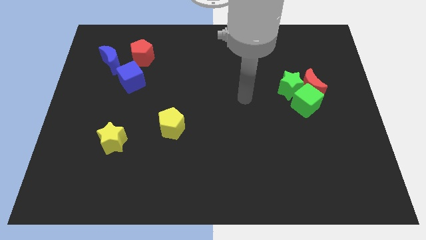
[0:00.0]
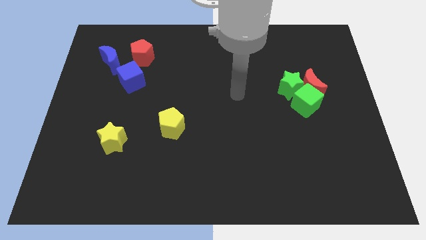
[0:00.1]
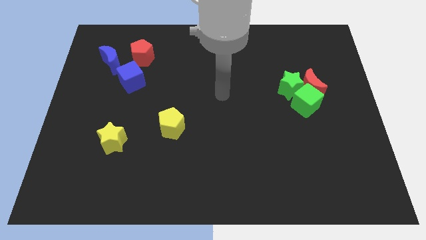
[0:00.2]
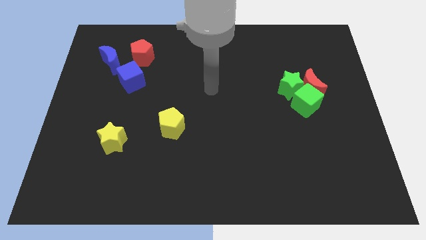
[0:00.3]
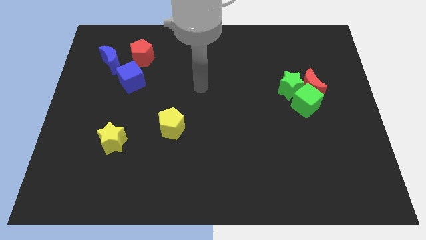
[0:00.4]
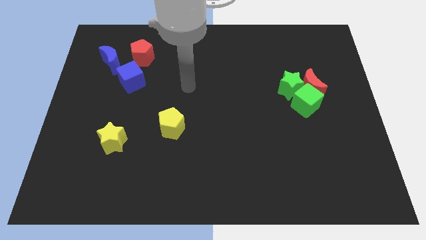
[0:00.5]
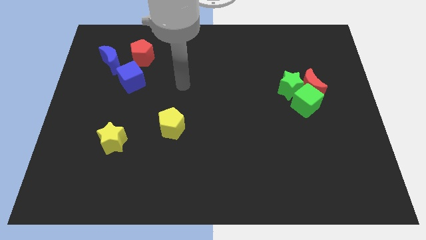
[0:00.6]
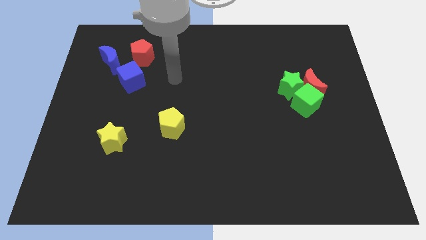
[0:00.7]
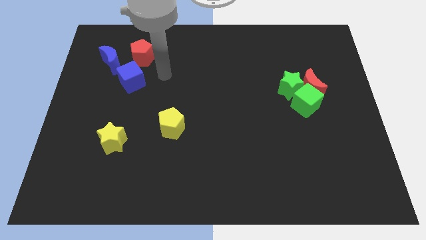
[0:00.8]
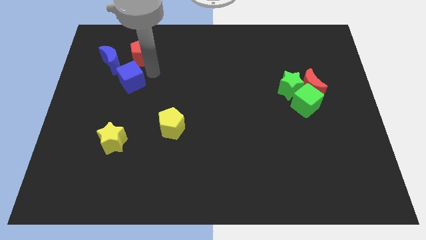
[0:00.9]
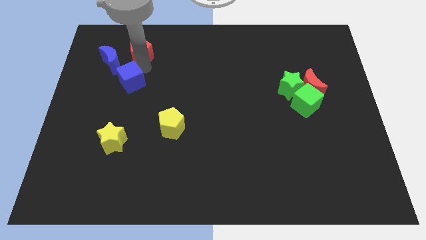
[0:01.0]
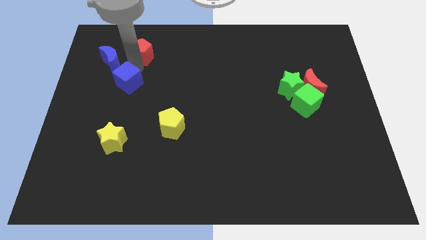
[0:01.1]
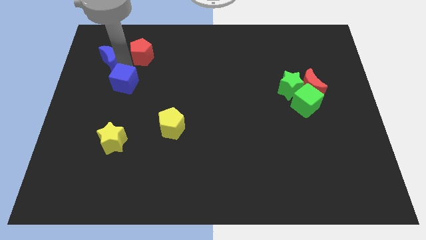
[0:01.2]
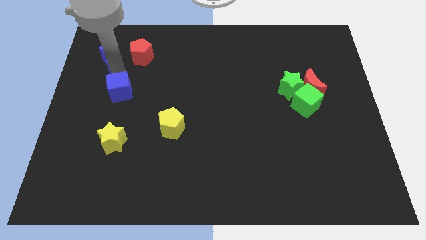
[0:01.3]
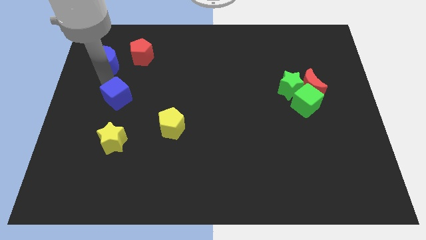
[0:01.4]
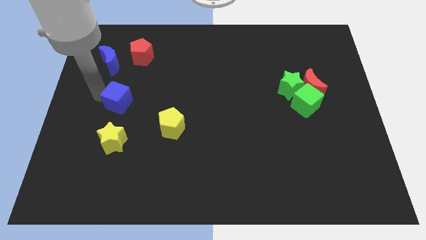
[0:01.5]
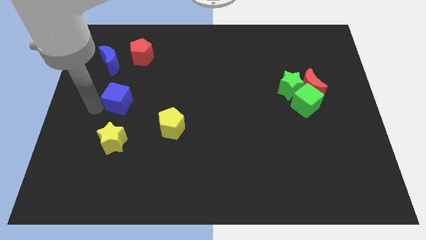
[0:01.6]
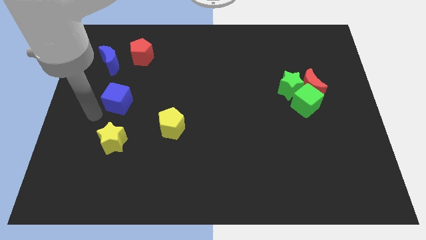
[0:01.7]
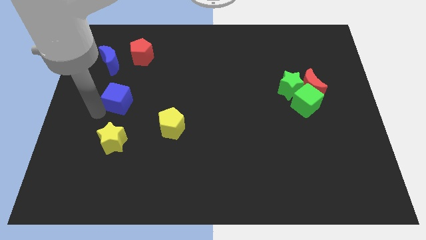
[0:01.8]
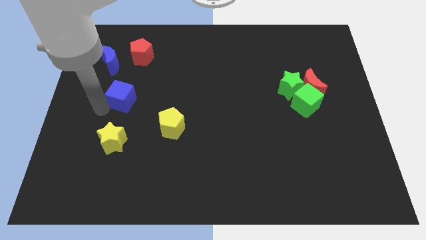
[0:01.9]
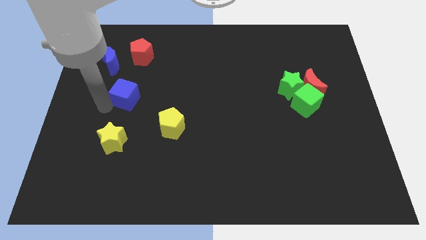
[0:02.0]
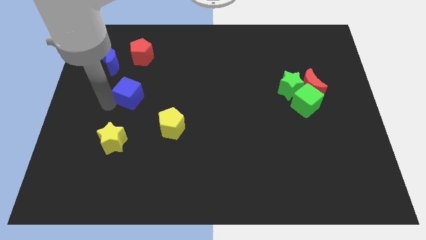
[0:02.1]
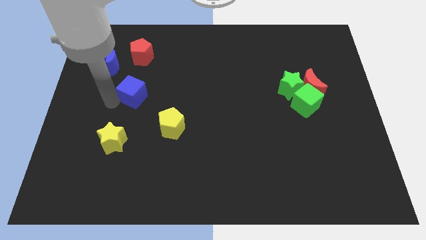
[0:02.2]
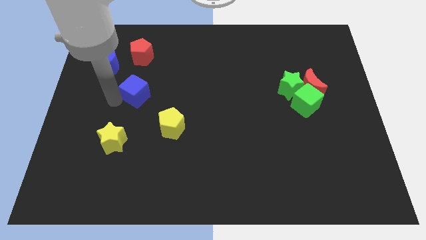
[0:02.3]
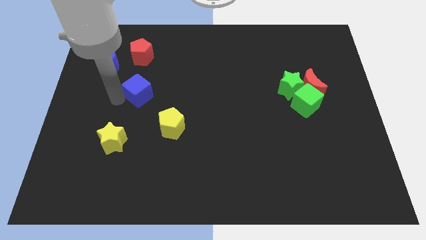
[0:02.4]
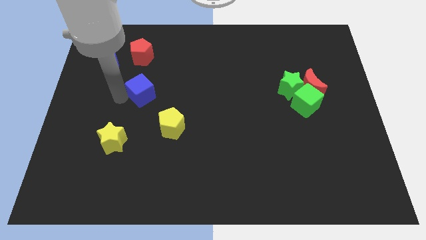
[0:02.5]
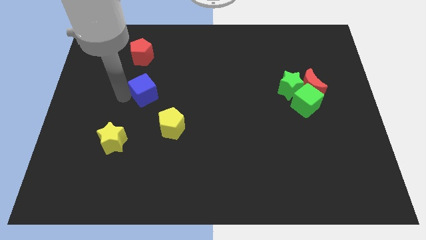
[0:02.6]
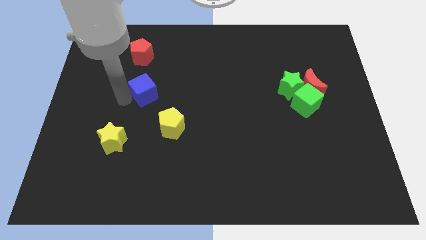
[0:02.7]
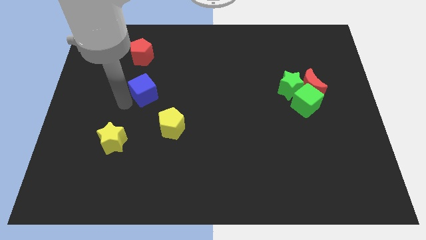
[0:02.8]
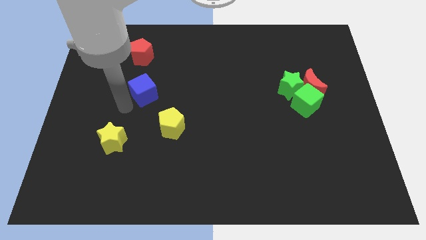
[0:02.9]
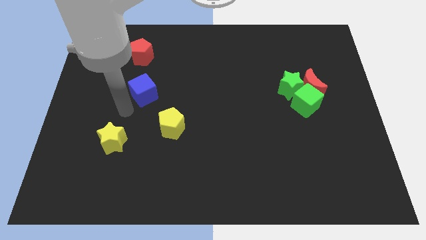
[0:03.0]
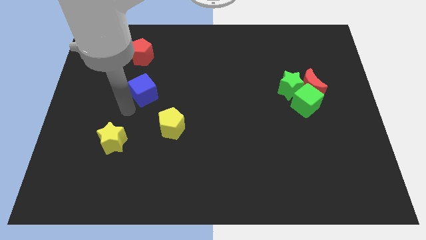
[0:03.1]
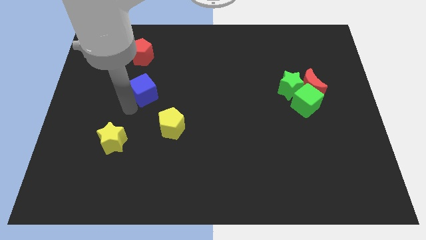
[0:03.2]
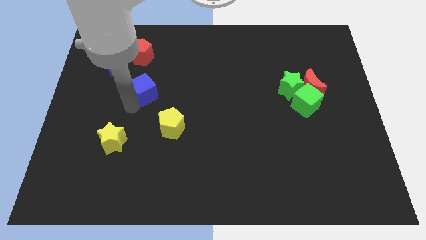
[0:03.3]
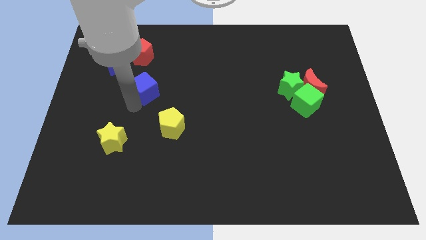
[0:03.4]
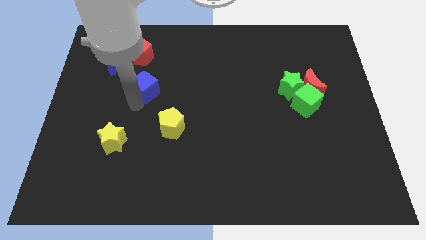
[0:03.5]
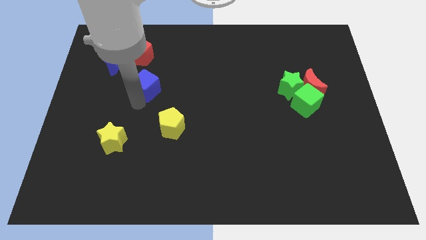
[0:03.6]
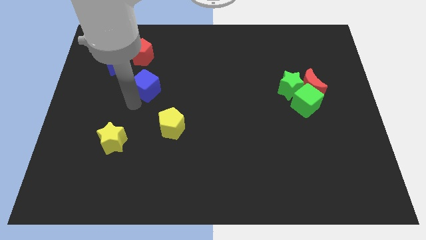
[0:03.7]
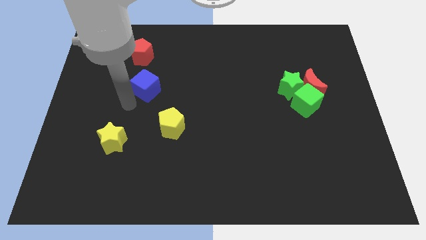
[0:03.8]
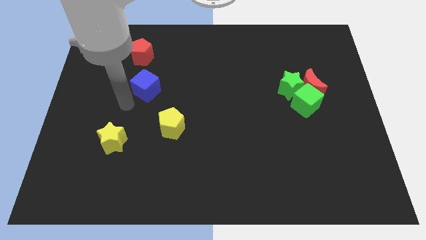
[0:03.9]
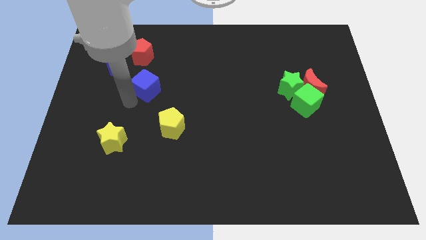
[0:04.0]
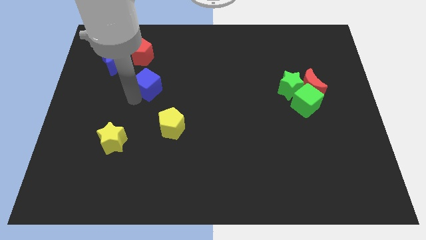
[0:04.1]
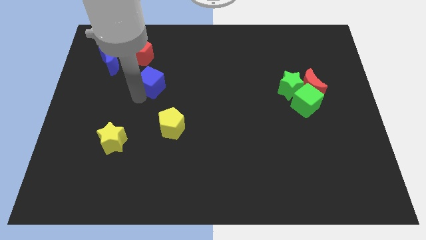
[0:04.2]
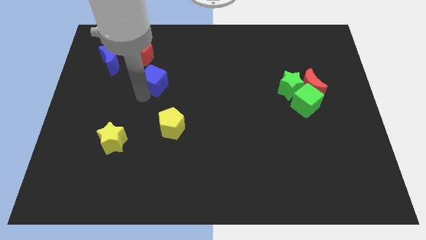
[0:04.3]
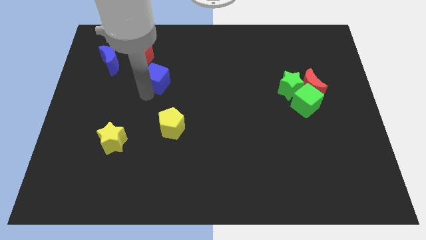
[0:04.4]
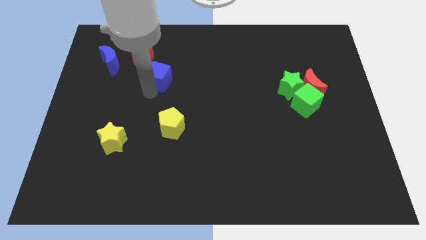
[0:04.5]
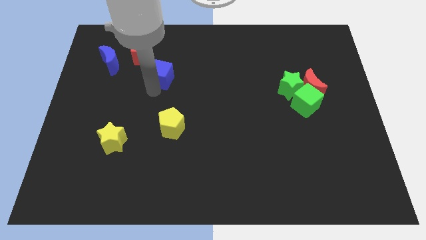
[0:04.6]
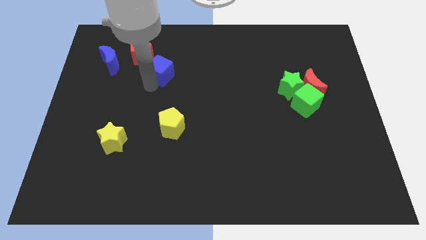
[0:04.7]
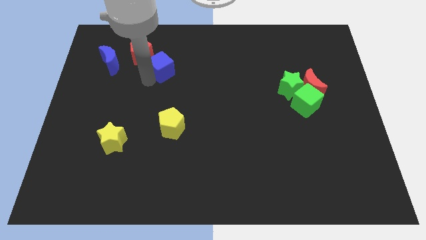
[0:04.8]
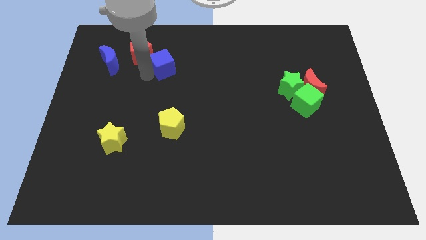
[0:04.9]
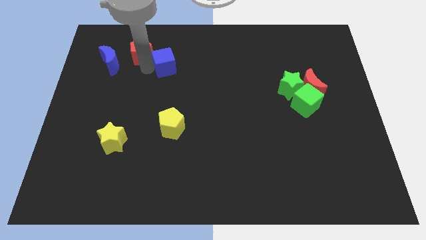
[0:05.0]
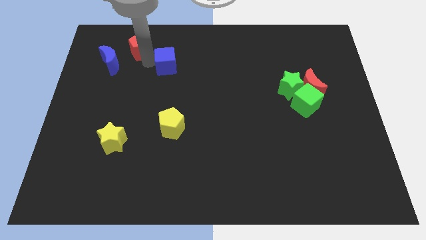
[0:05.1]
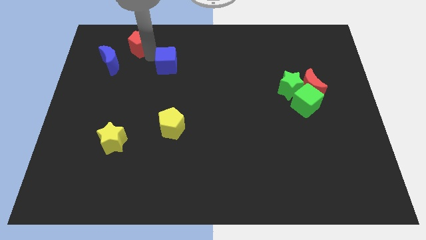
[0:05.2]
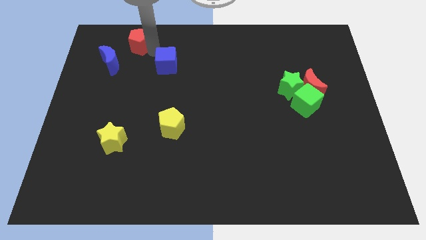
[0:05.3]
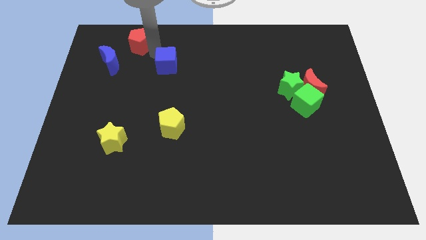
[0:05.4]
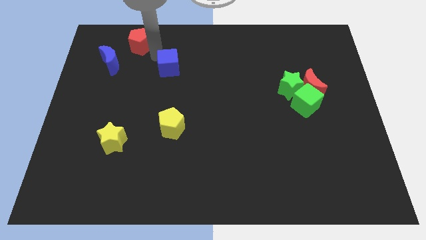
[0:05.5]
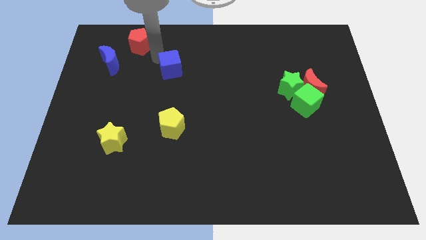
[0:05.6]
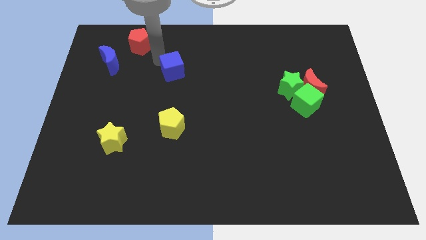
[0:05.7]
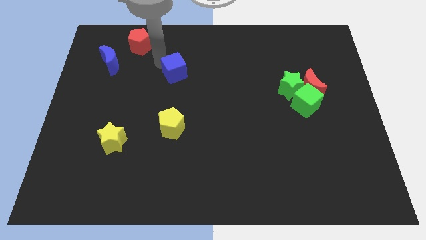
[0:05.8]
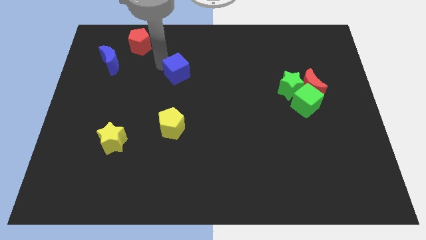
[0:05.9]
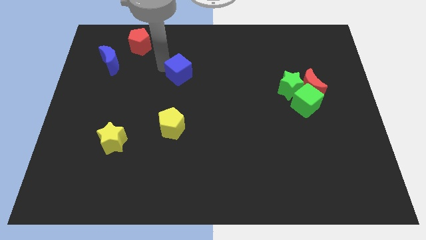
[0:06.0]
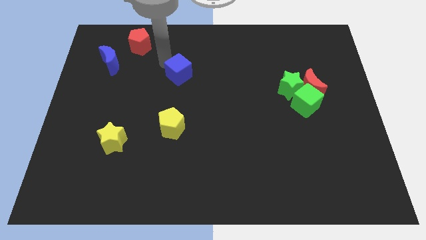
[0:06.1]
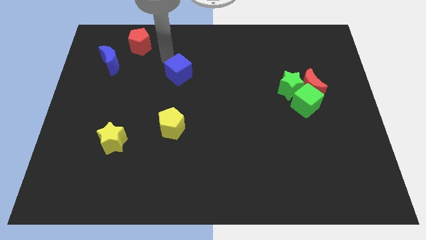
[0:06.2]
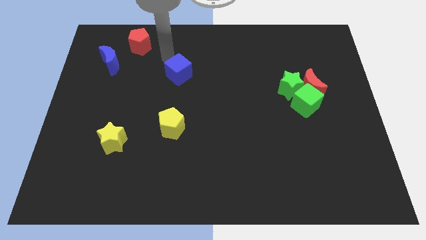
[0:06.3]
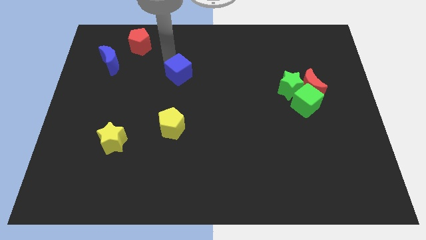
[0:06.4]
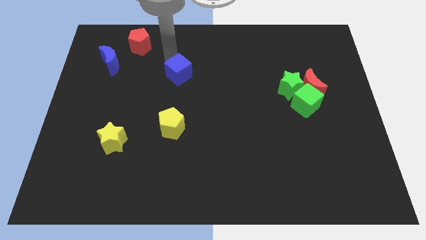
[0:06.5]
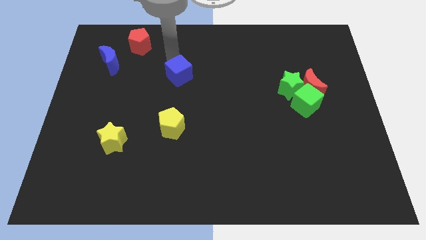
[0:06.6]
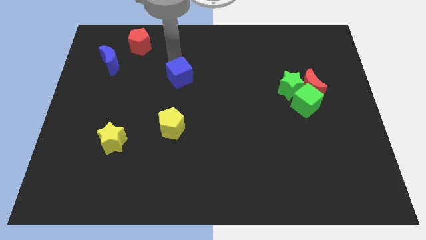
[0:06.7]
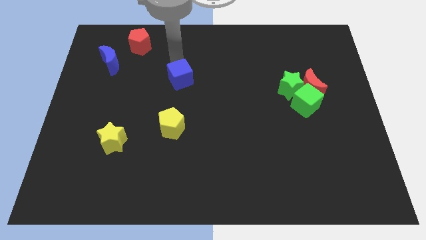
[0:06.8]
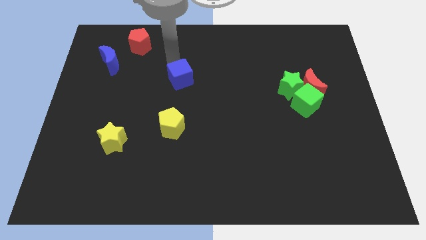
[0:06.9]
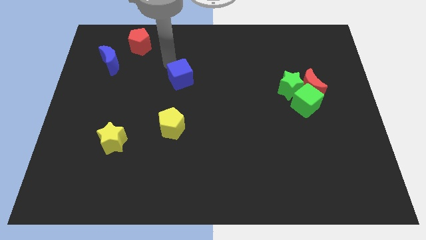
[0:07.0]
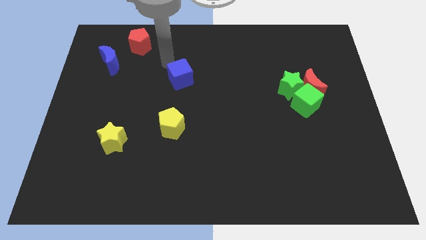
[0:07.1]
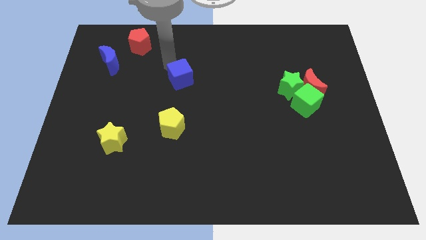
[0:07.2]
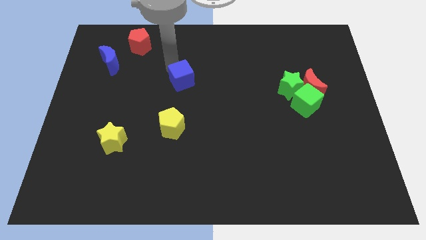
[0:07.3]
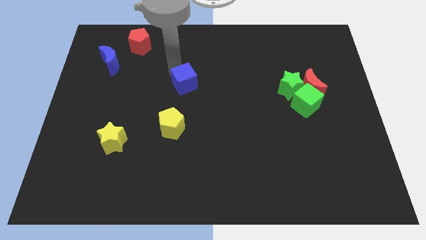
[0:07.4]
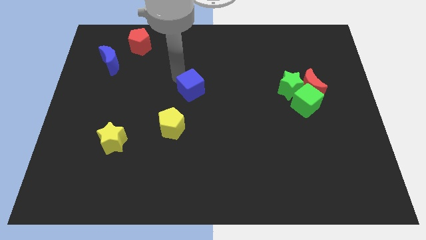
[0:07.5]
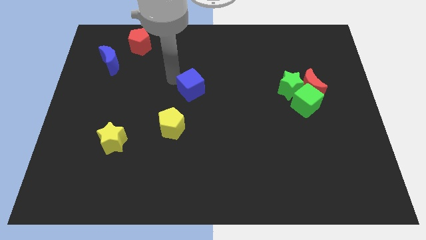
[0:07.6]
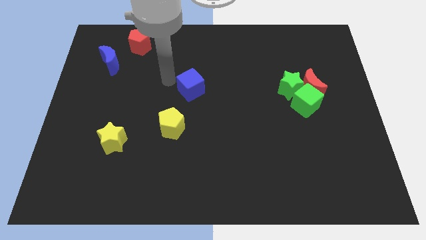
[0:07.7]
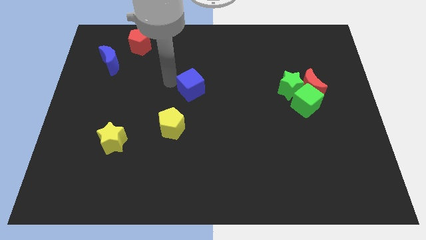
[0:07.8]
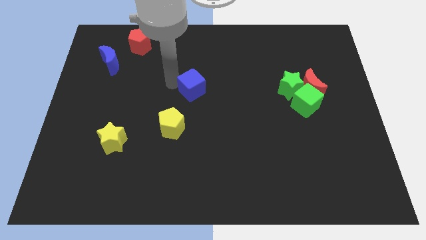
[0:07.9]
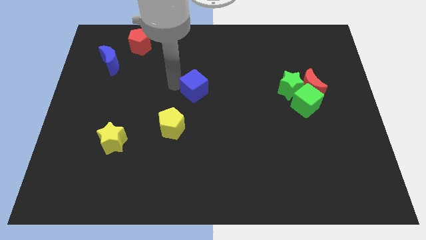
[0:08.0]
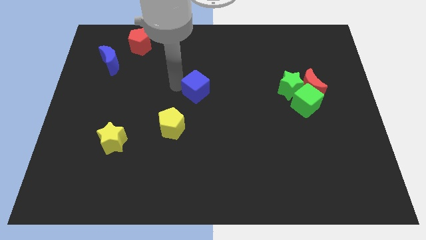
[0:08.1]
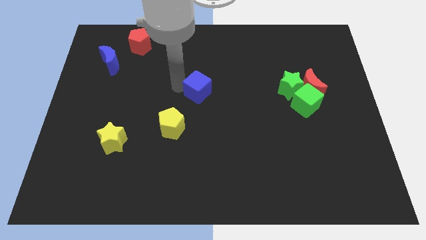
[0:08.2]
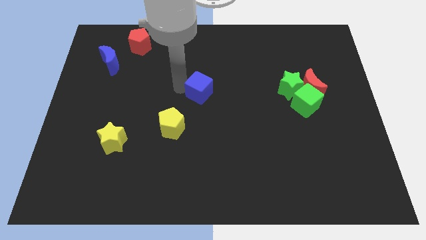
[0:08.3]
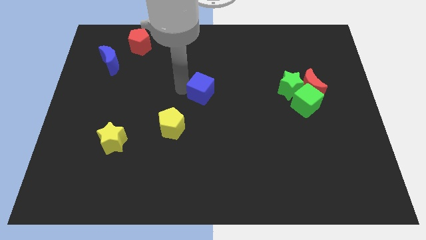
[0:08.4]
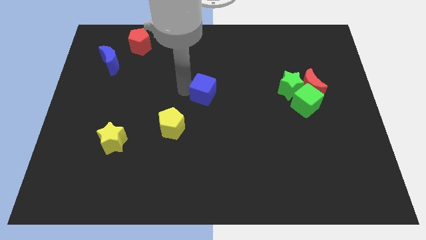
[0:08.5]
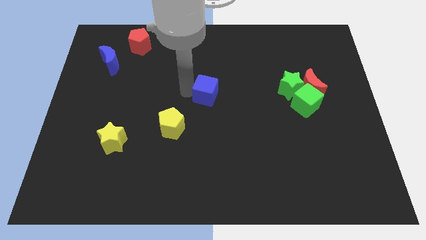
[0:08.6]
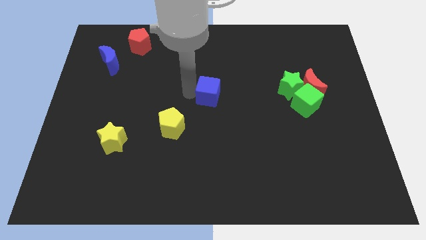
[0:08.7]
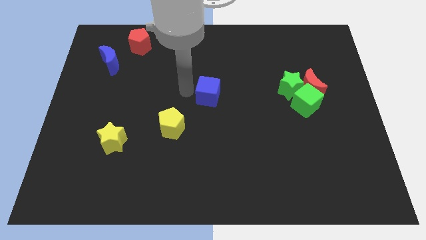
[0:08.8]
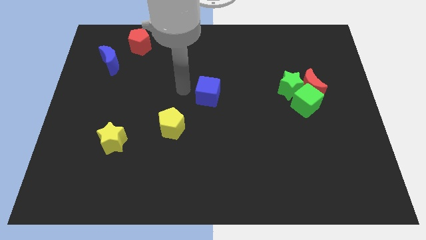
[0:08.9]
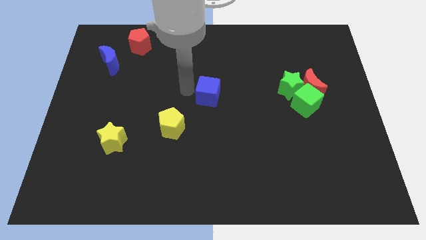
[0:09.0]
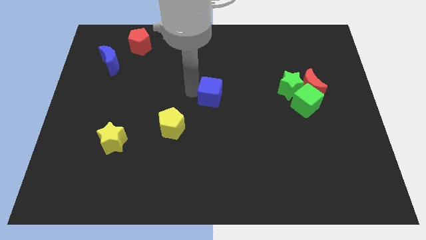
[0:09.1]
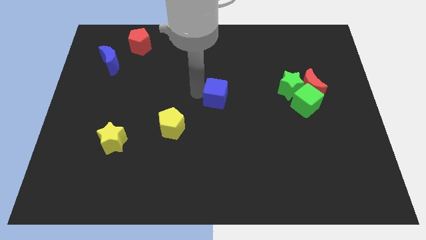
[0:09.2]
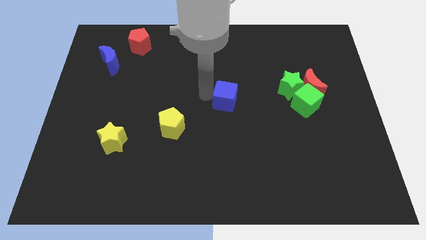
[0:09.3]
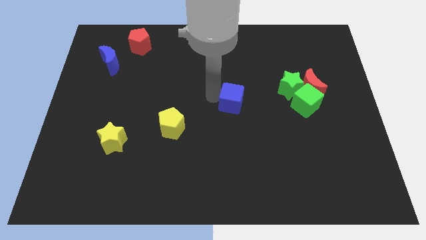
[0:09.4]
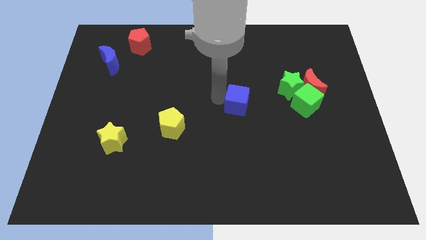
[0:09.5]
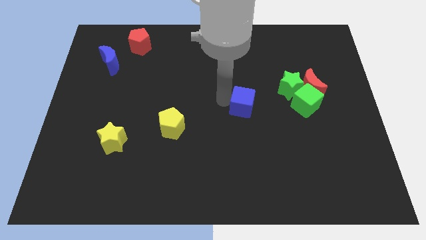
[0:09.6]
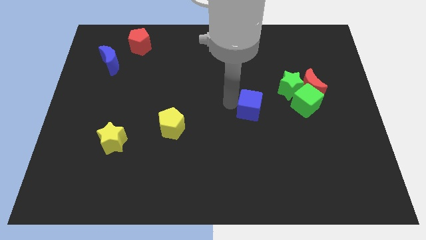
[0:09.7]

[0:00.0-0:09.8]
move the blue cube diagonally down and to the left of the green star
